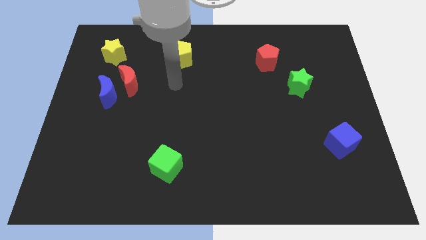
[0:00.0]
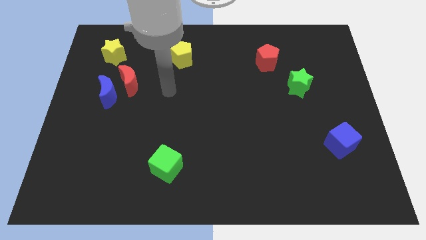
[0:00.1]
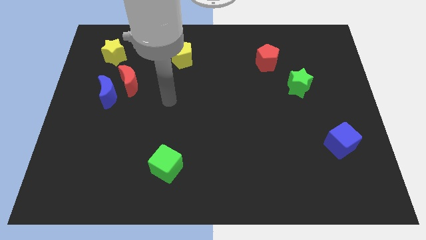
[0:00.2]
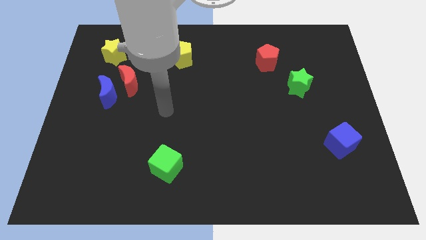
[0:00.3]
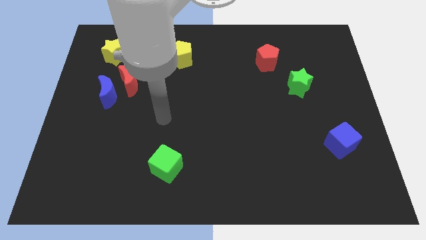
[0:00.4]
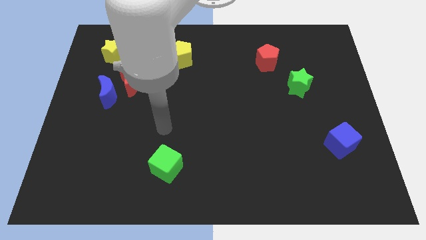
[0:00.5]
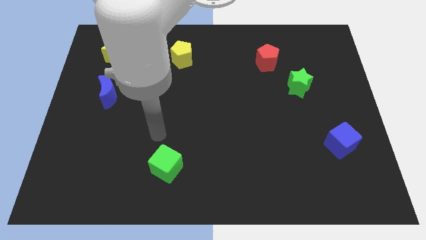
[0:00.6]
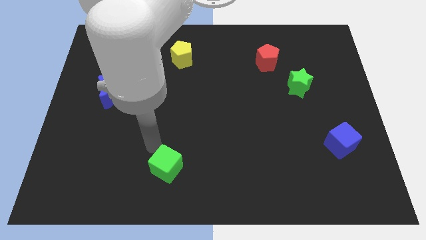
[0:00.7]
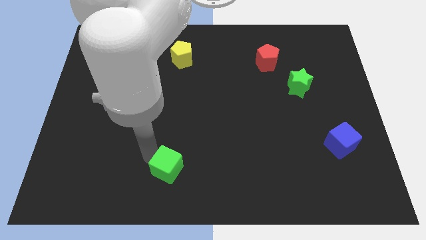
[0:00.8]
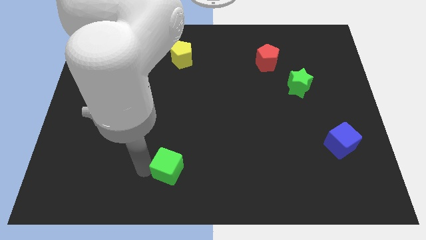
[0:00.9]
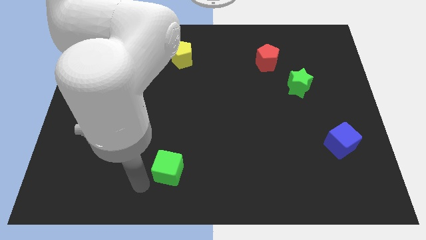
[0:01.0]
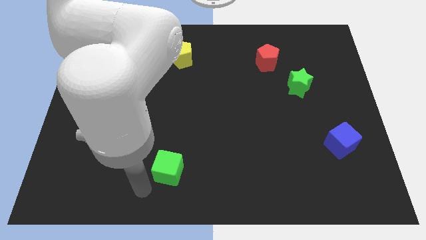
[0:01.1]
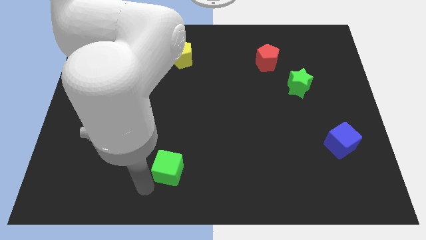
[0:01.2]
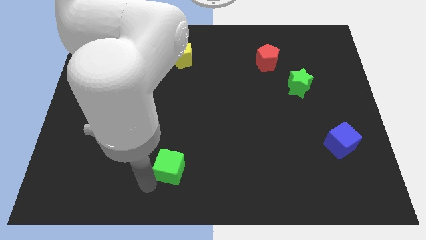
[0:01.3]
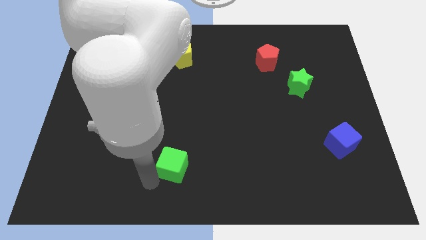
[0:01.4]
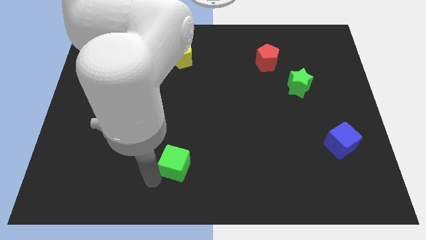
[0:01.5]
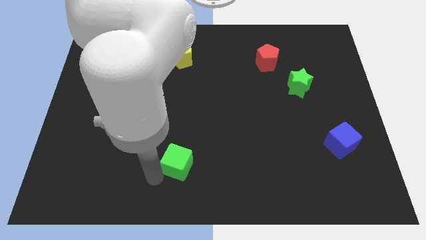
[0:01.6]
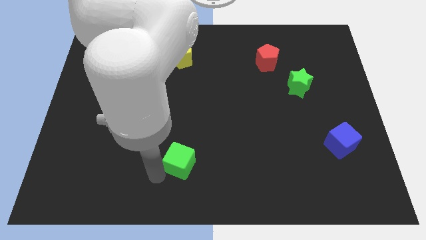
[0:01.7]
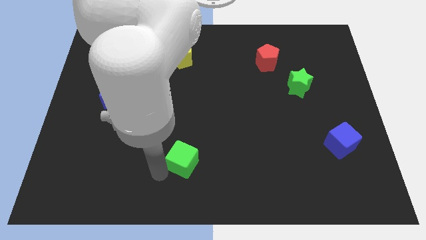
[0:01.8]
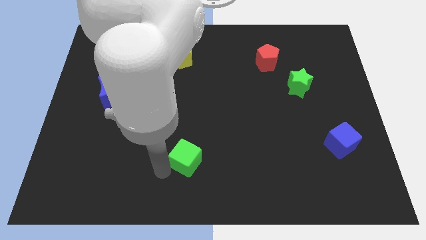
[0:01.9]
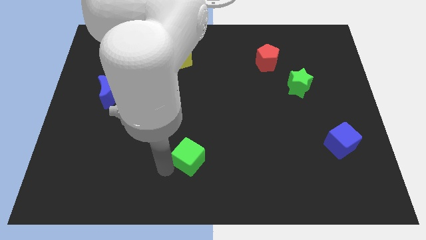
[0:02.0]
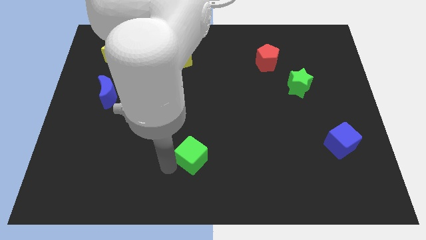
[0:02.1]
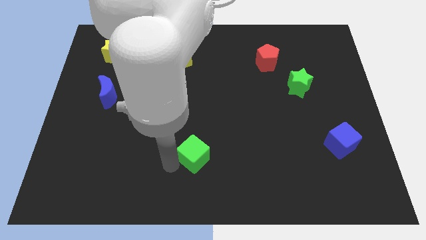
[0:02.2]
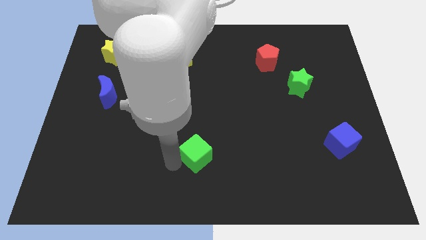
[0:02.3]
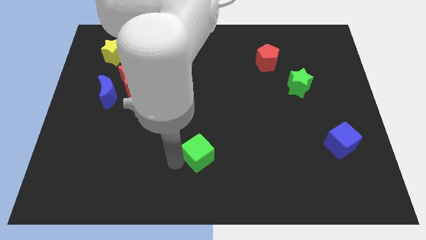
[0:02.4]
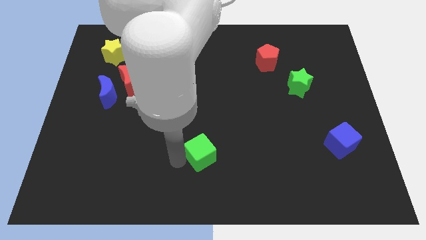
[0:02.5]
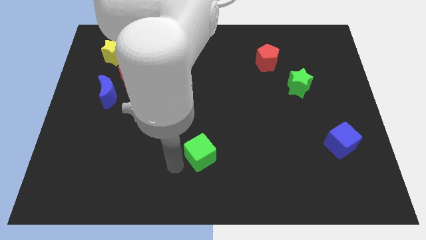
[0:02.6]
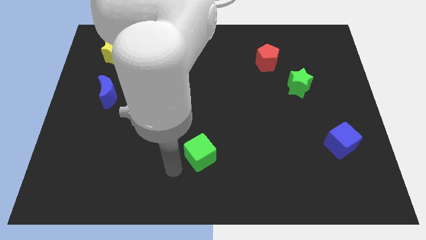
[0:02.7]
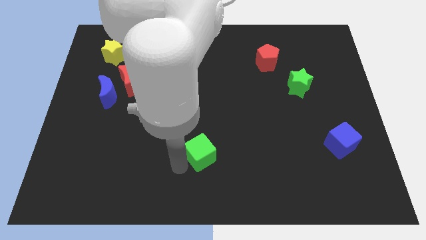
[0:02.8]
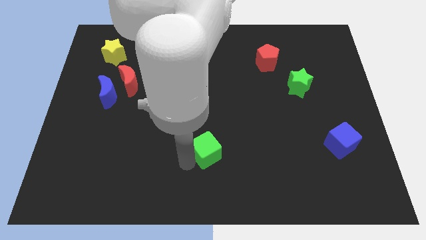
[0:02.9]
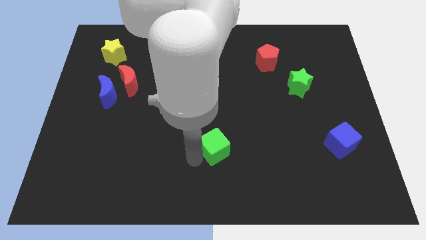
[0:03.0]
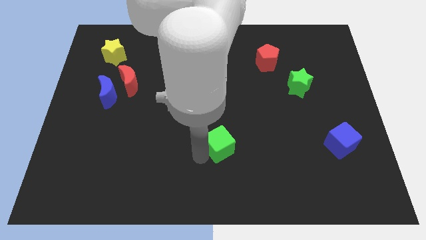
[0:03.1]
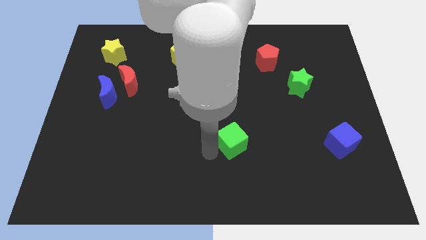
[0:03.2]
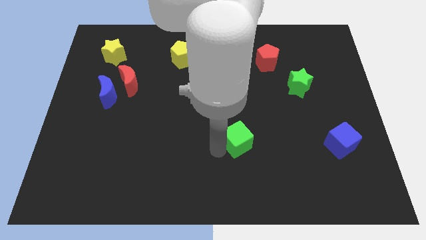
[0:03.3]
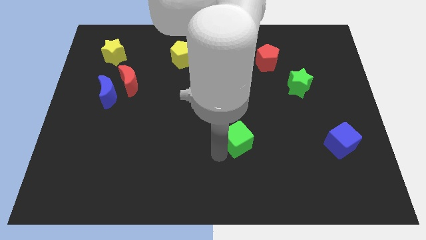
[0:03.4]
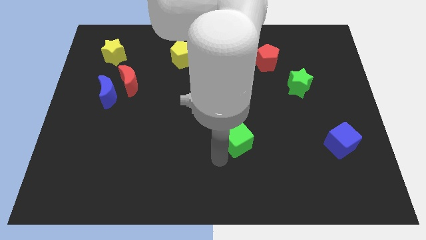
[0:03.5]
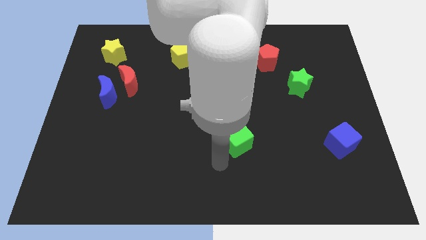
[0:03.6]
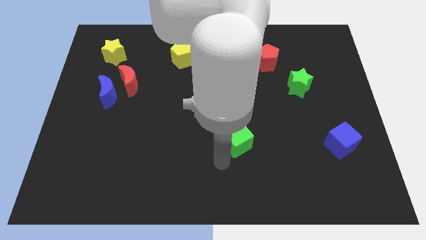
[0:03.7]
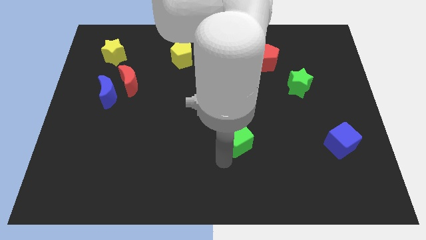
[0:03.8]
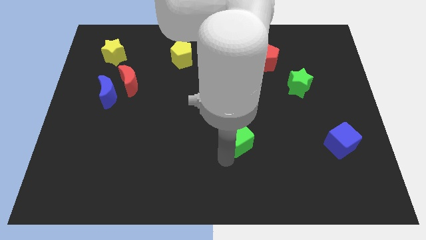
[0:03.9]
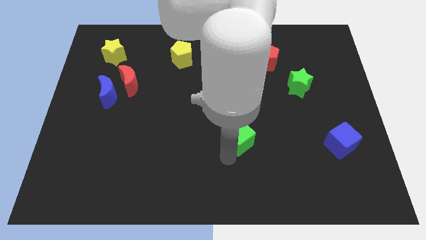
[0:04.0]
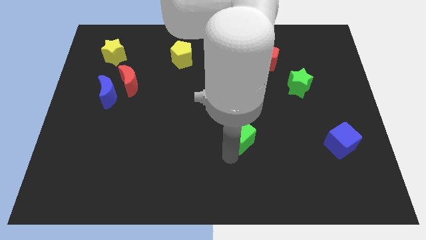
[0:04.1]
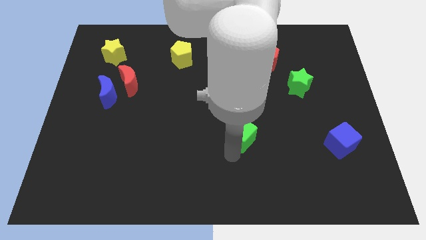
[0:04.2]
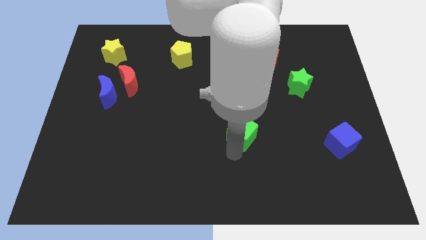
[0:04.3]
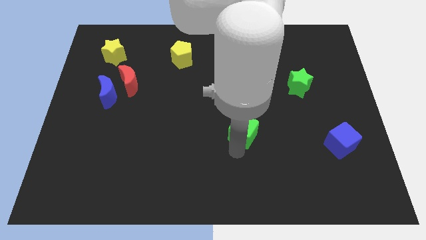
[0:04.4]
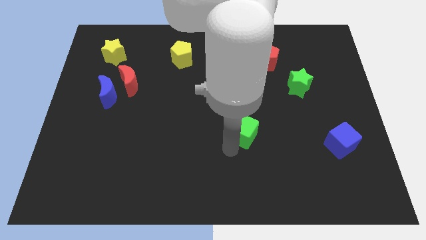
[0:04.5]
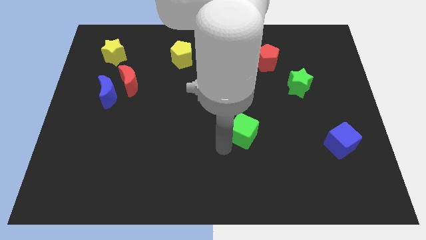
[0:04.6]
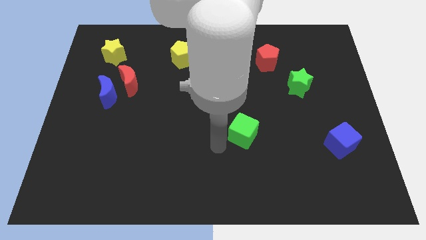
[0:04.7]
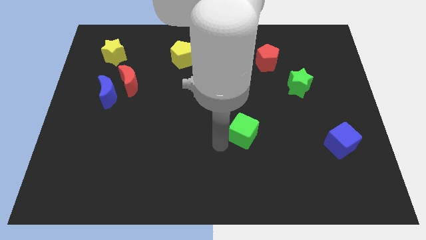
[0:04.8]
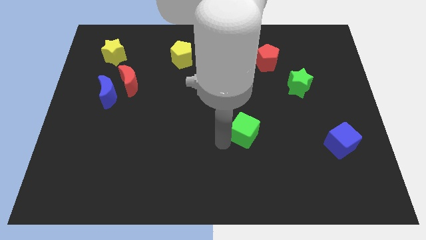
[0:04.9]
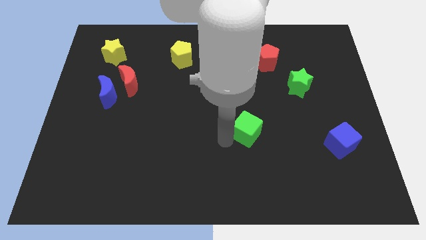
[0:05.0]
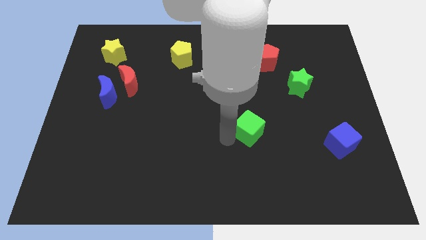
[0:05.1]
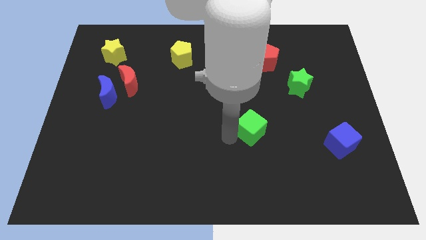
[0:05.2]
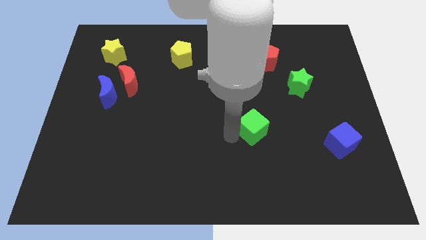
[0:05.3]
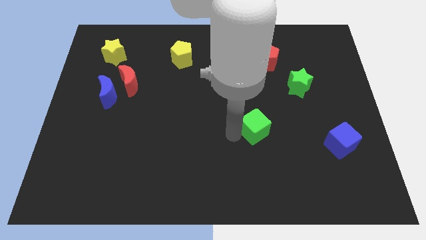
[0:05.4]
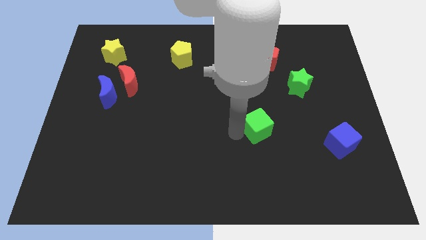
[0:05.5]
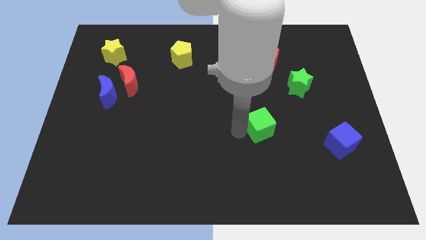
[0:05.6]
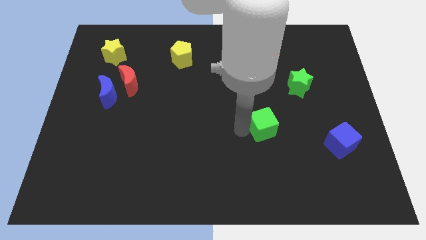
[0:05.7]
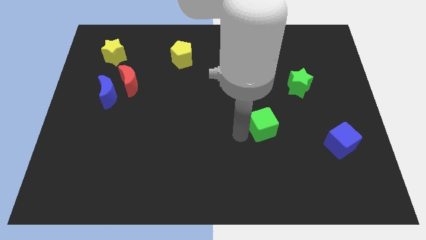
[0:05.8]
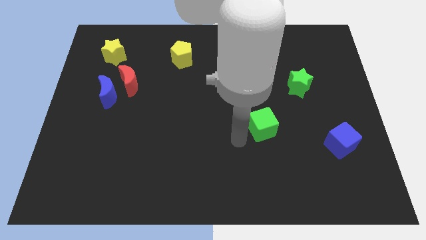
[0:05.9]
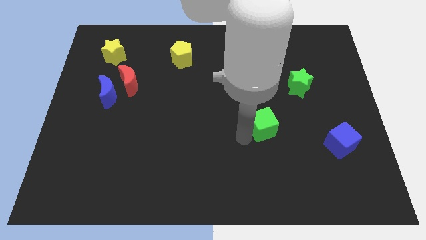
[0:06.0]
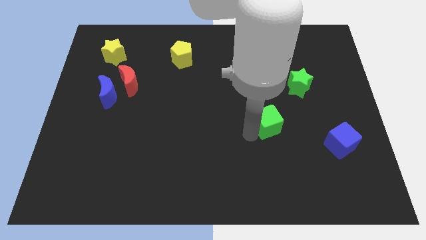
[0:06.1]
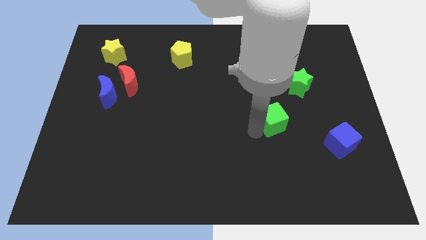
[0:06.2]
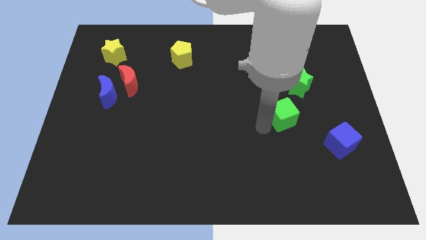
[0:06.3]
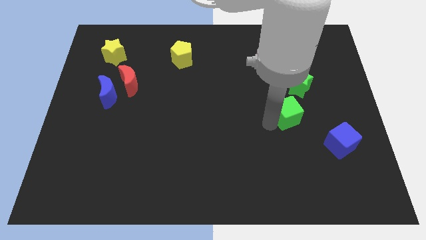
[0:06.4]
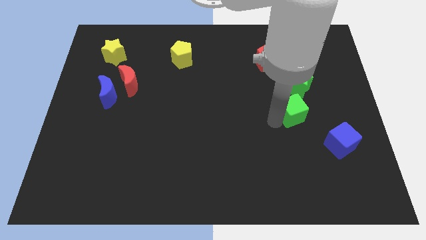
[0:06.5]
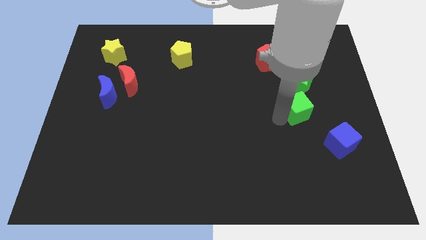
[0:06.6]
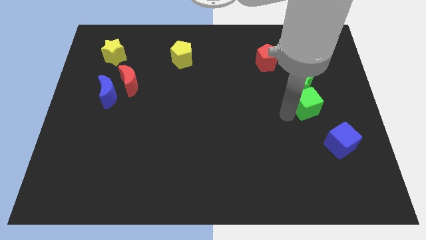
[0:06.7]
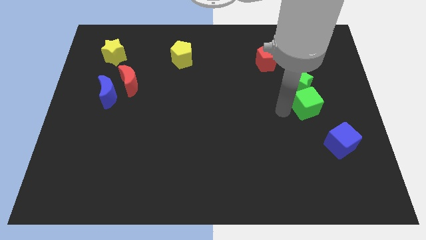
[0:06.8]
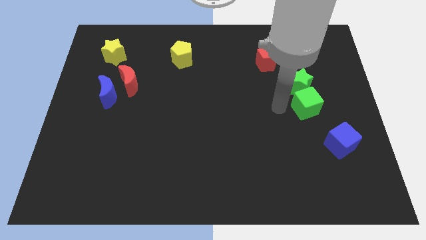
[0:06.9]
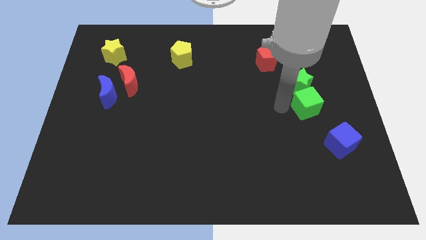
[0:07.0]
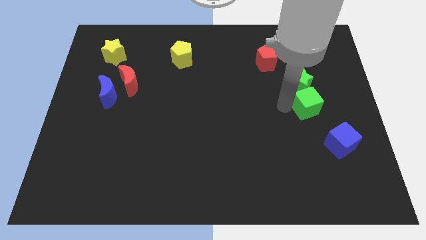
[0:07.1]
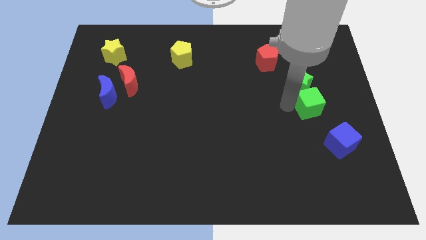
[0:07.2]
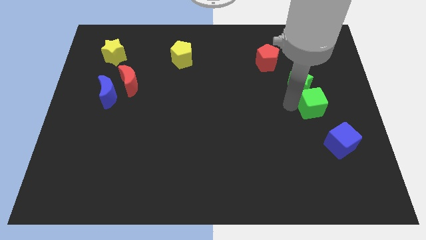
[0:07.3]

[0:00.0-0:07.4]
put the green cube to the top side of the blue cube

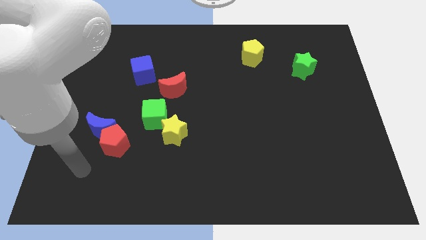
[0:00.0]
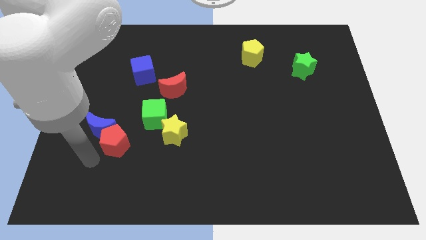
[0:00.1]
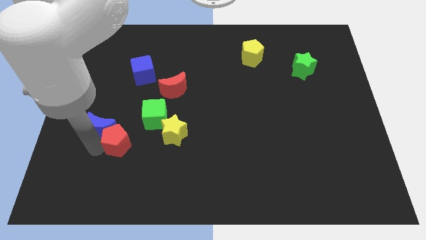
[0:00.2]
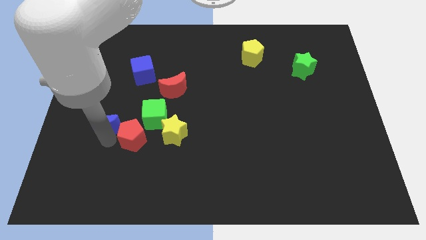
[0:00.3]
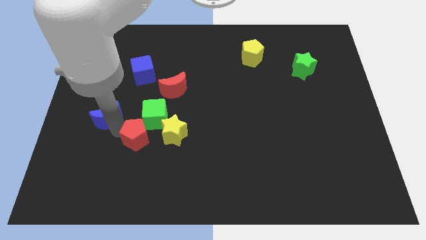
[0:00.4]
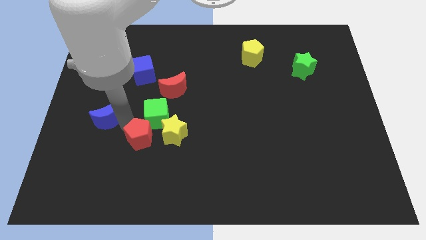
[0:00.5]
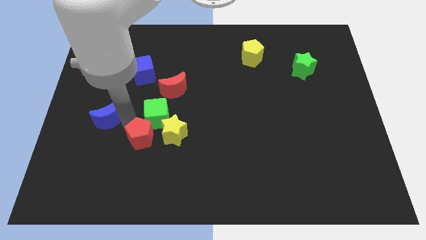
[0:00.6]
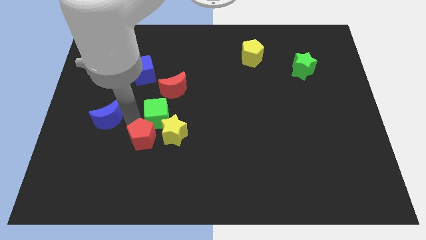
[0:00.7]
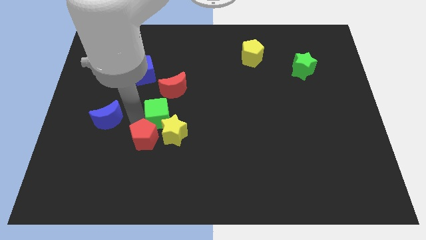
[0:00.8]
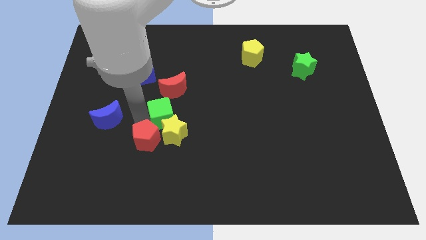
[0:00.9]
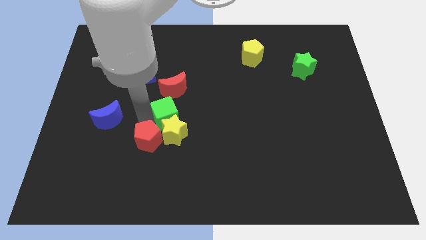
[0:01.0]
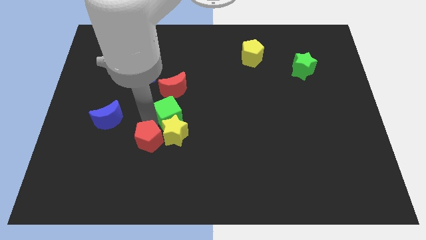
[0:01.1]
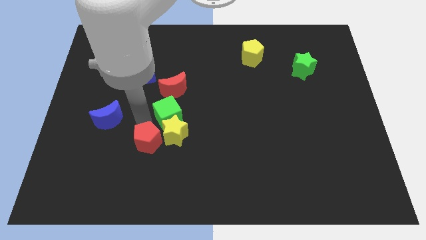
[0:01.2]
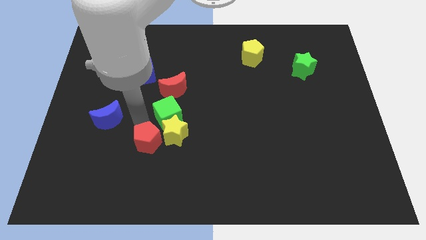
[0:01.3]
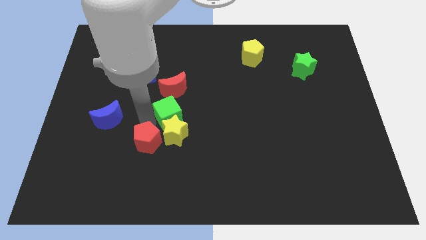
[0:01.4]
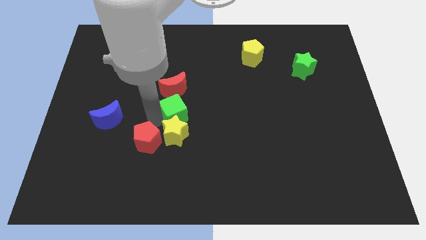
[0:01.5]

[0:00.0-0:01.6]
put the green cube to the bottom right side of the red moon
